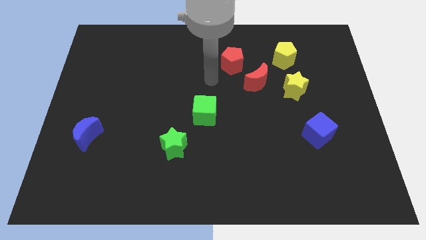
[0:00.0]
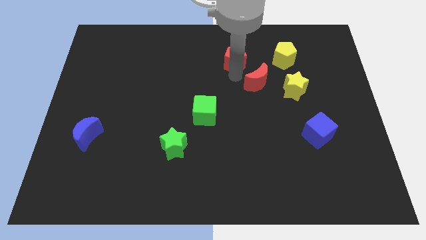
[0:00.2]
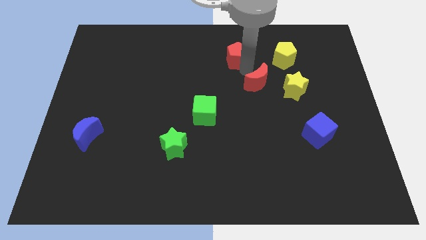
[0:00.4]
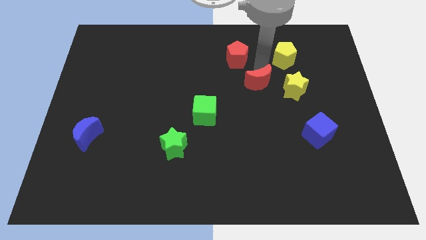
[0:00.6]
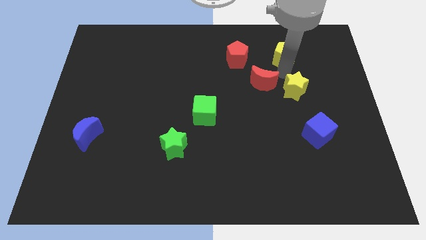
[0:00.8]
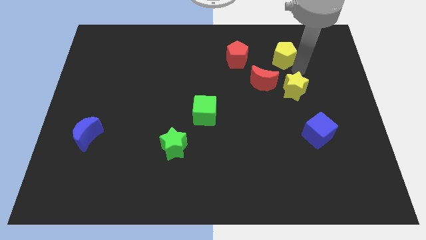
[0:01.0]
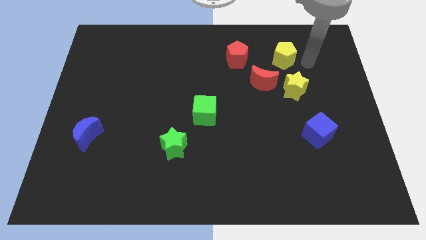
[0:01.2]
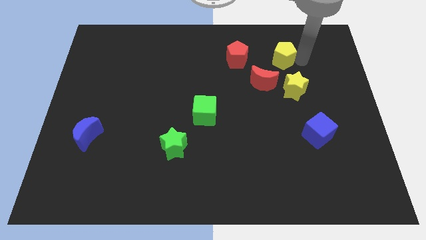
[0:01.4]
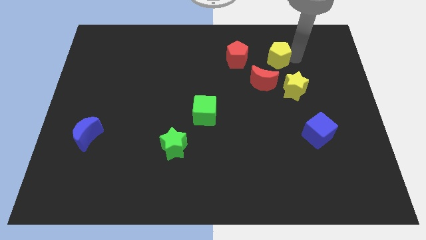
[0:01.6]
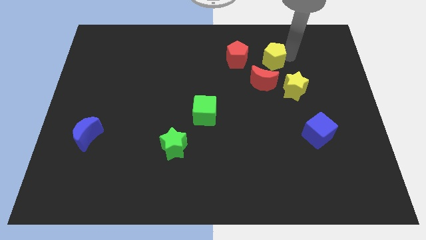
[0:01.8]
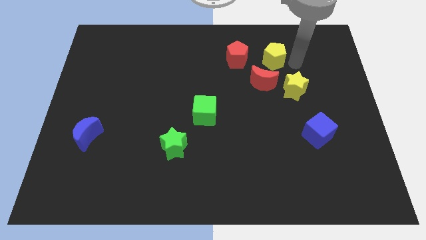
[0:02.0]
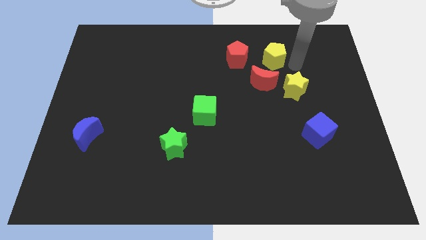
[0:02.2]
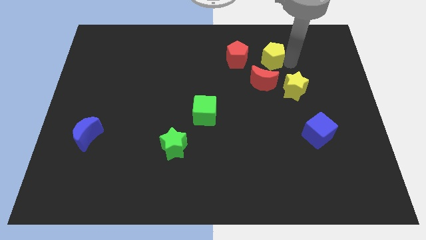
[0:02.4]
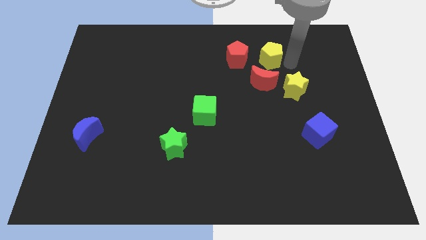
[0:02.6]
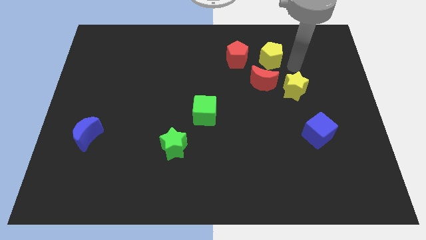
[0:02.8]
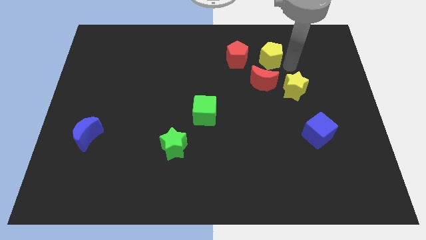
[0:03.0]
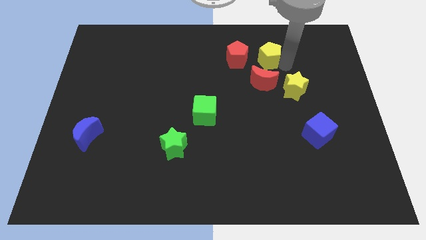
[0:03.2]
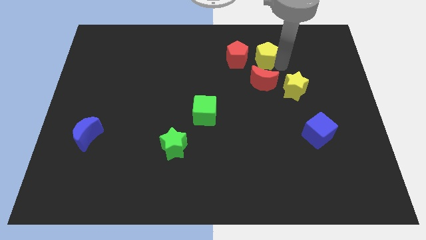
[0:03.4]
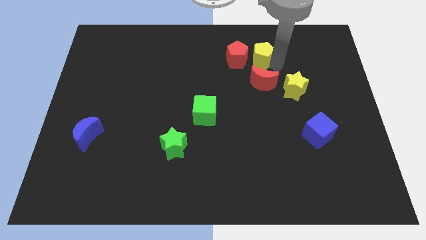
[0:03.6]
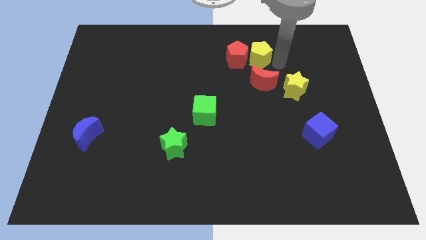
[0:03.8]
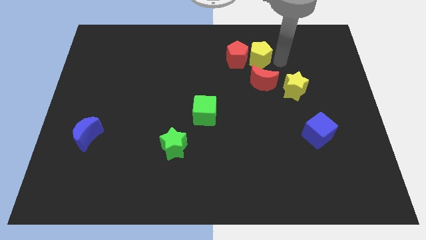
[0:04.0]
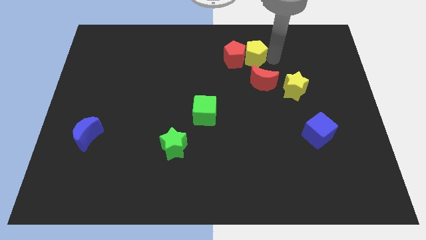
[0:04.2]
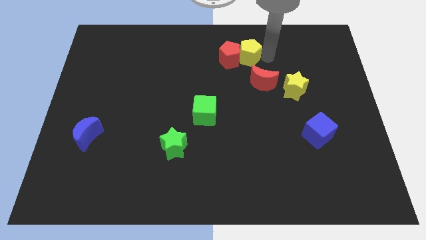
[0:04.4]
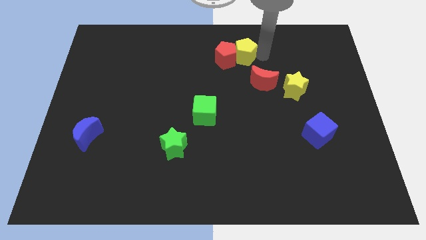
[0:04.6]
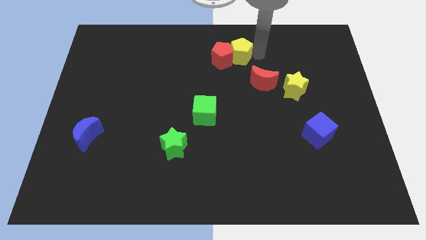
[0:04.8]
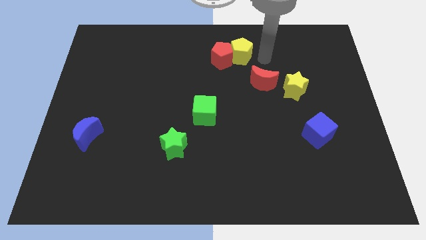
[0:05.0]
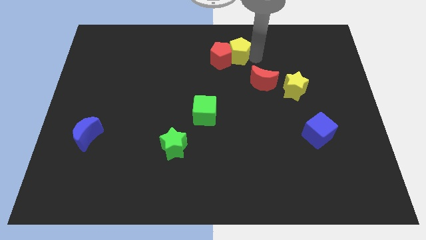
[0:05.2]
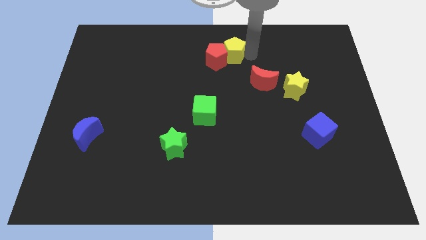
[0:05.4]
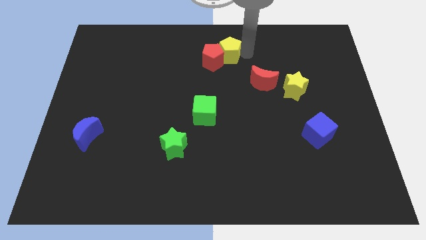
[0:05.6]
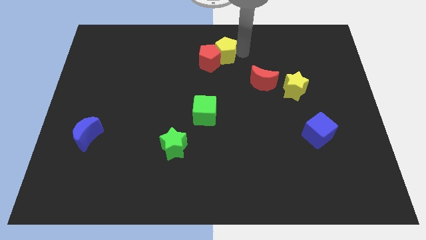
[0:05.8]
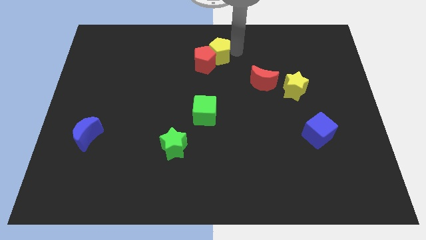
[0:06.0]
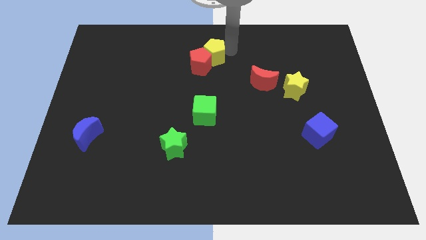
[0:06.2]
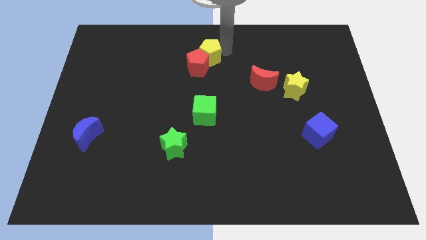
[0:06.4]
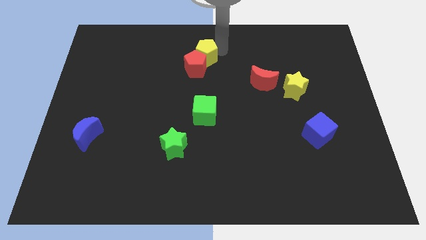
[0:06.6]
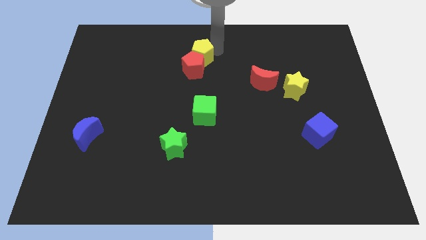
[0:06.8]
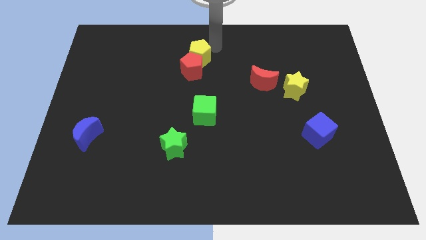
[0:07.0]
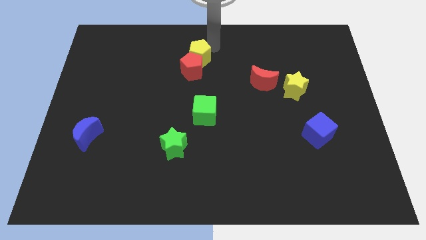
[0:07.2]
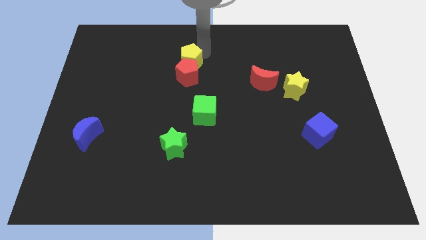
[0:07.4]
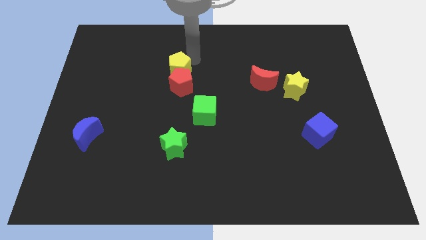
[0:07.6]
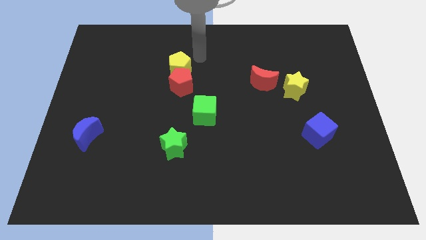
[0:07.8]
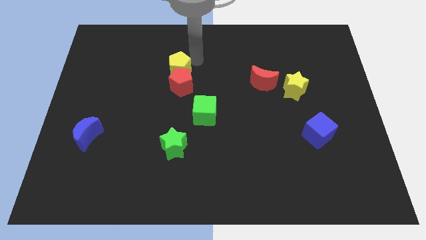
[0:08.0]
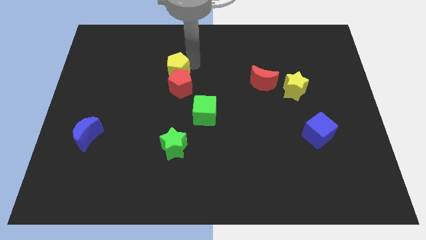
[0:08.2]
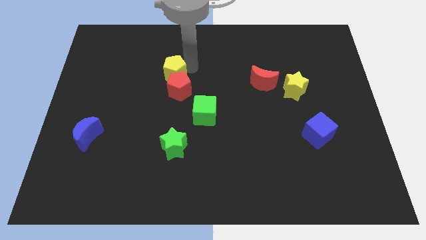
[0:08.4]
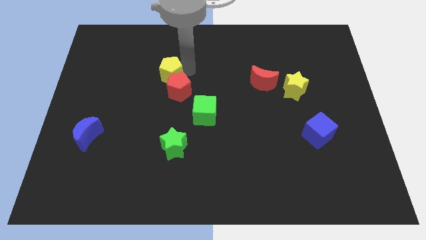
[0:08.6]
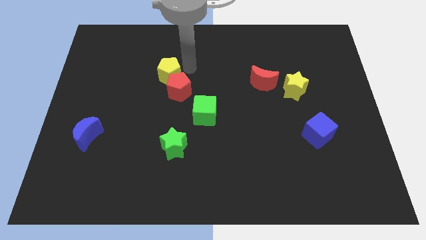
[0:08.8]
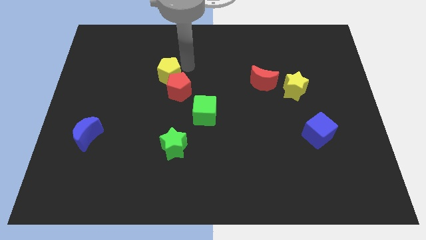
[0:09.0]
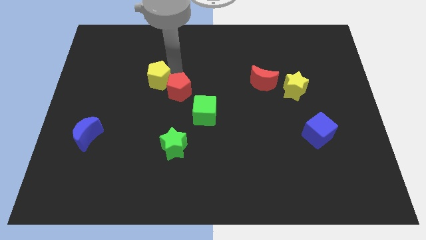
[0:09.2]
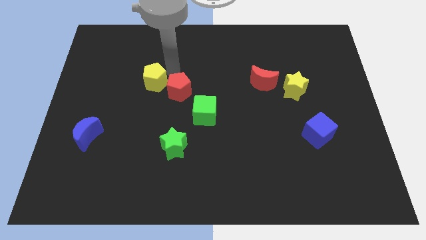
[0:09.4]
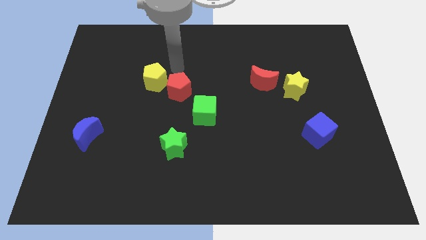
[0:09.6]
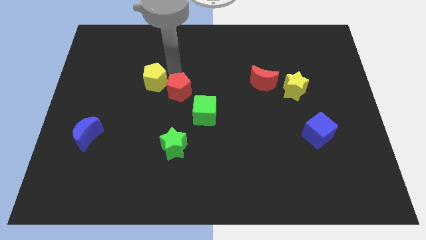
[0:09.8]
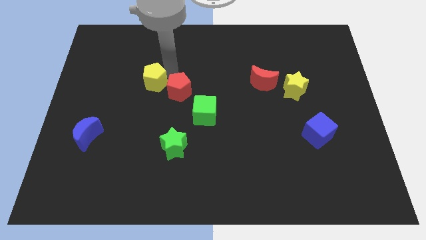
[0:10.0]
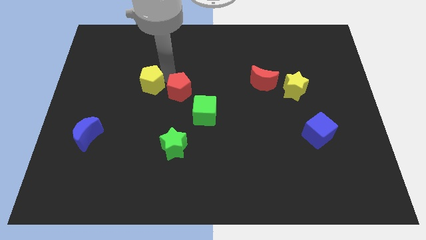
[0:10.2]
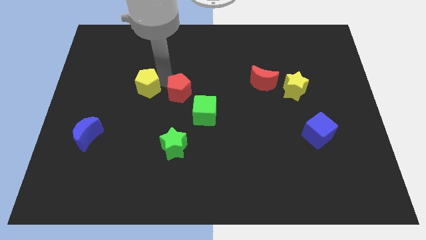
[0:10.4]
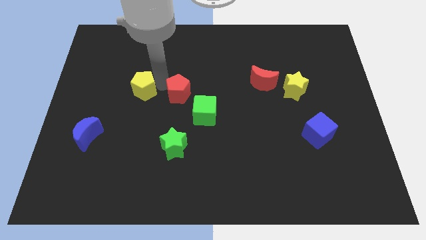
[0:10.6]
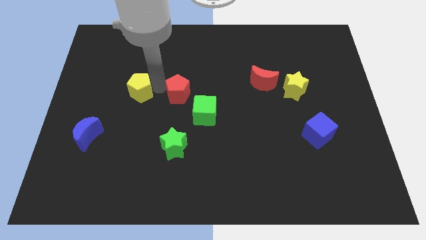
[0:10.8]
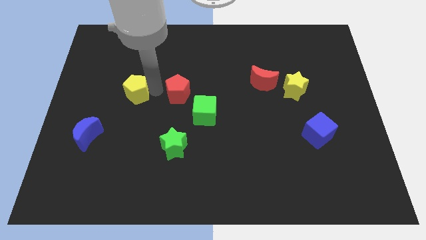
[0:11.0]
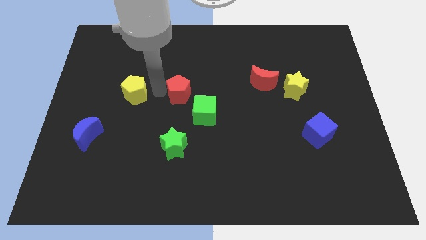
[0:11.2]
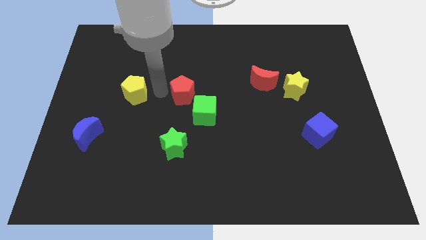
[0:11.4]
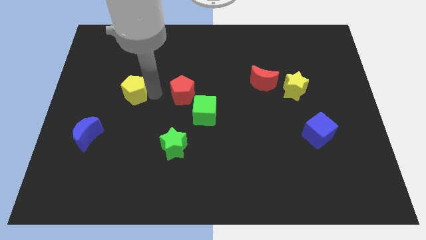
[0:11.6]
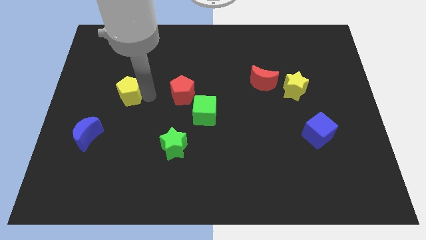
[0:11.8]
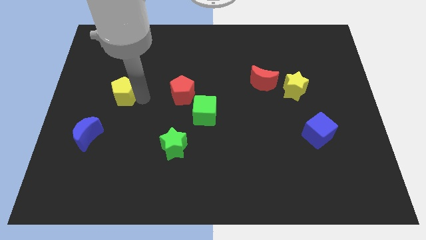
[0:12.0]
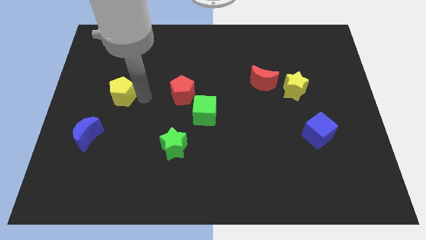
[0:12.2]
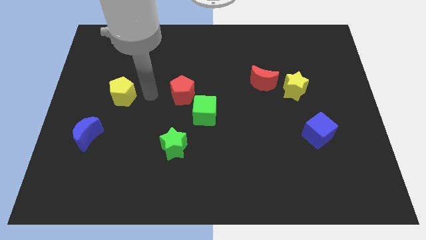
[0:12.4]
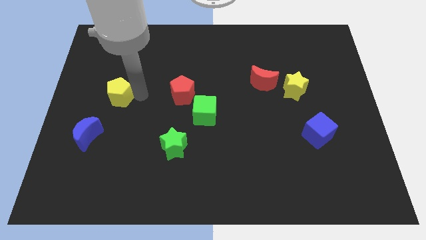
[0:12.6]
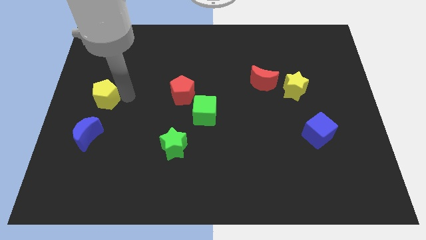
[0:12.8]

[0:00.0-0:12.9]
put the yellow pentagon to the left side of the board
